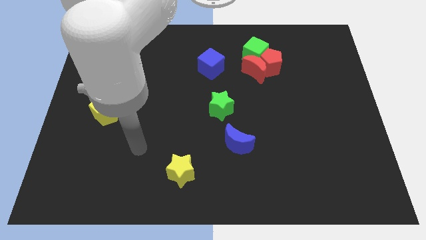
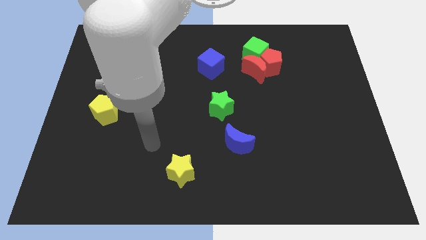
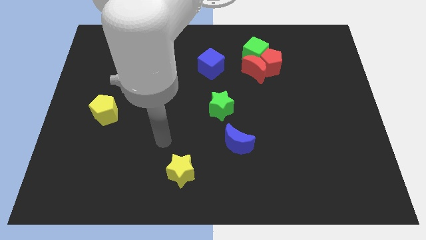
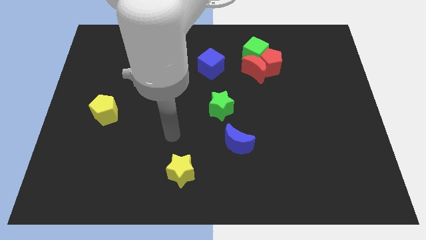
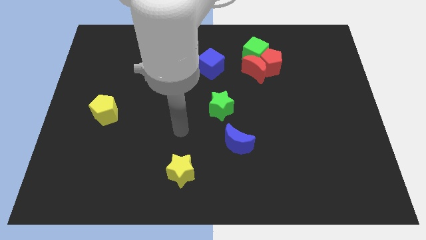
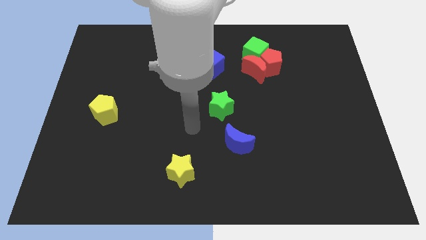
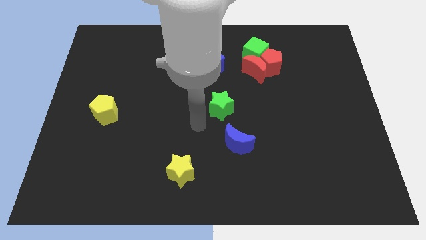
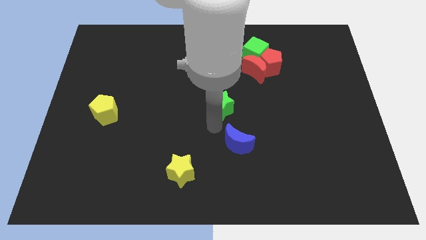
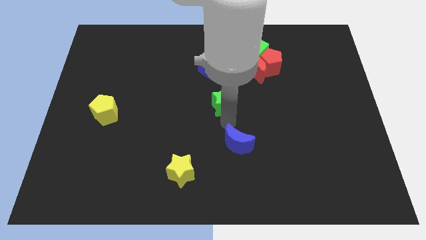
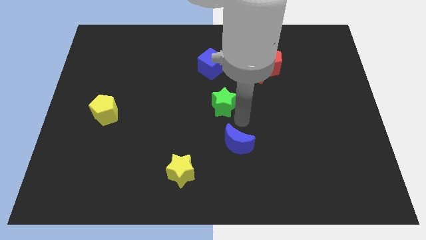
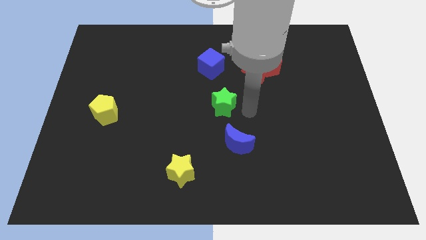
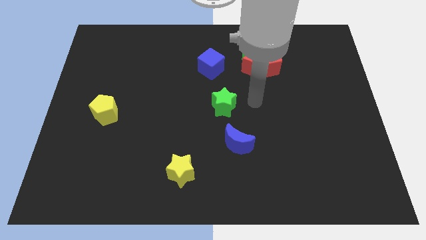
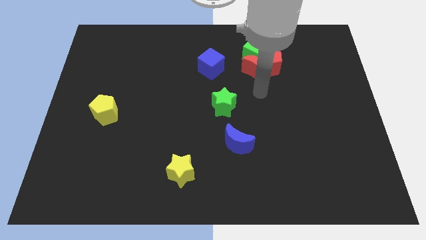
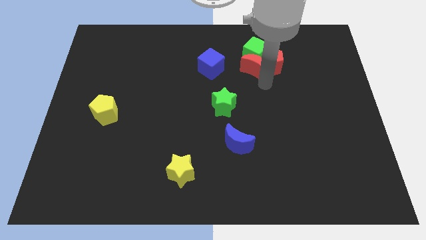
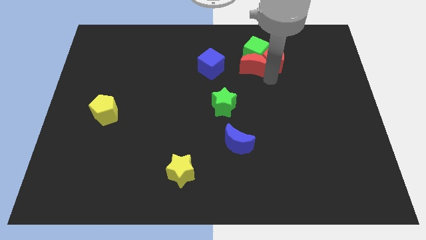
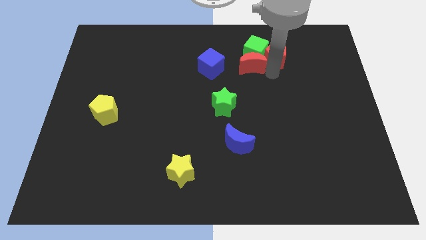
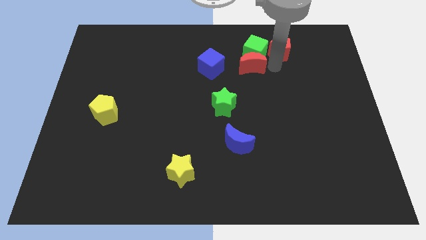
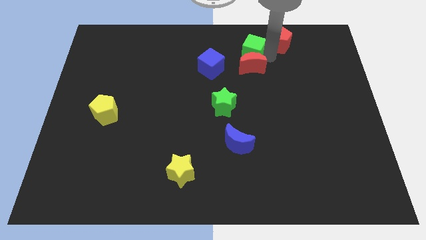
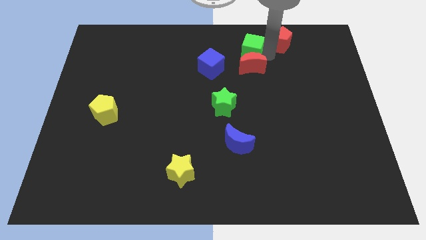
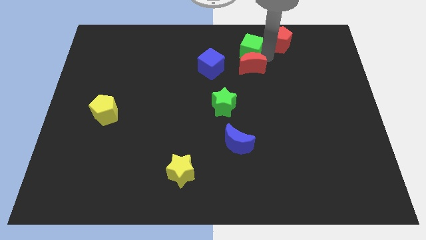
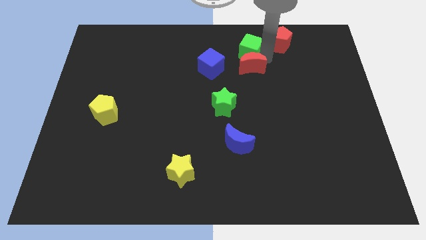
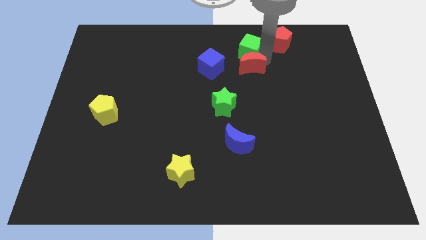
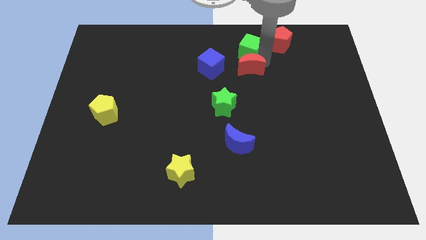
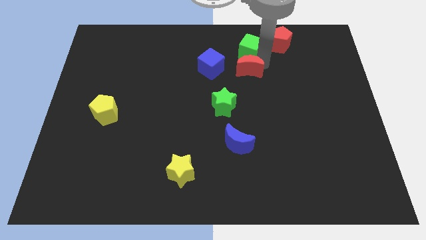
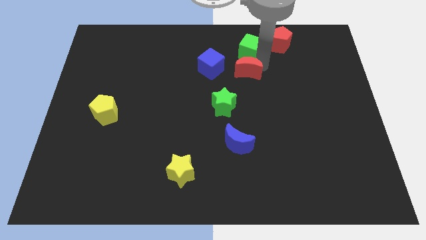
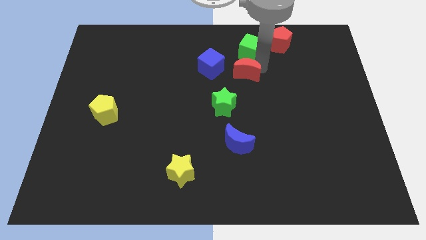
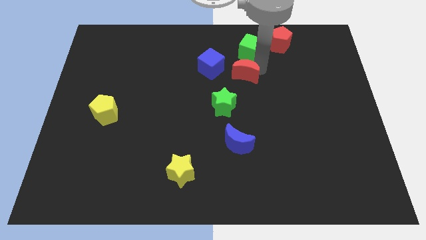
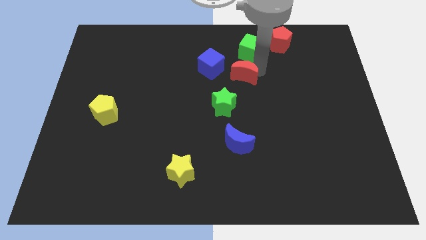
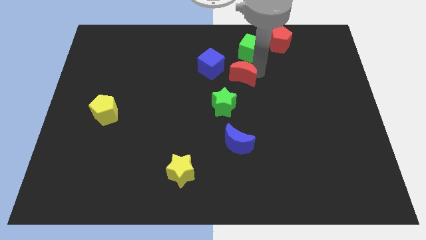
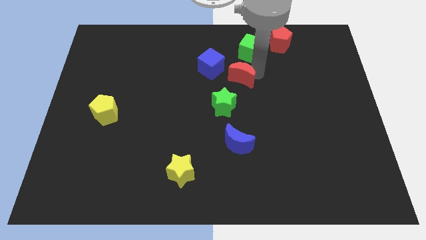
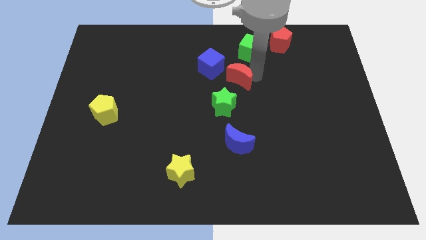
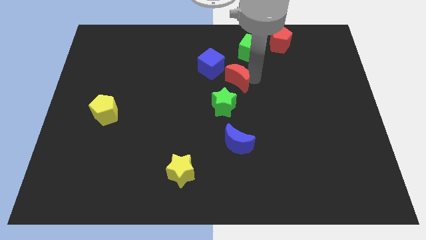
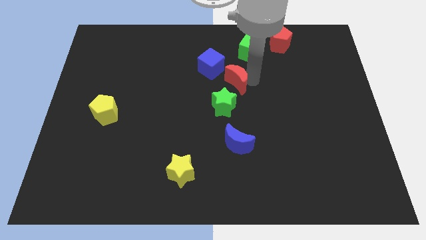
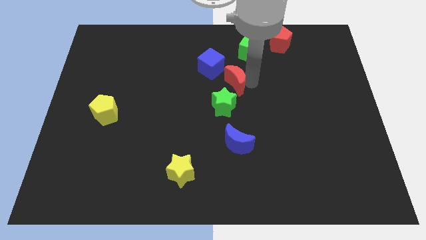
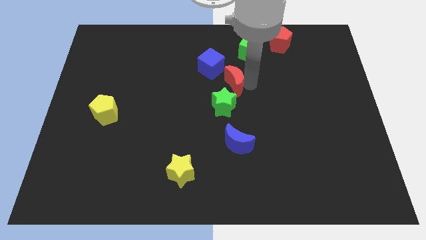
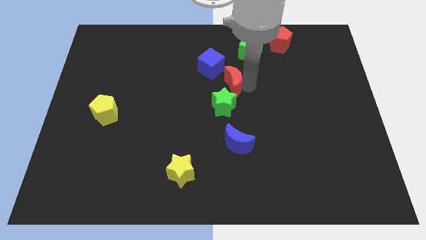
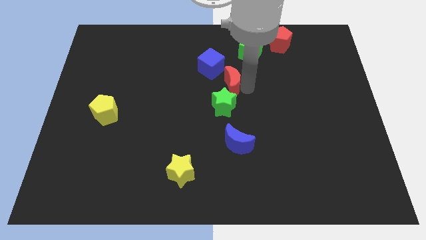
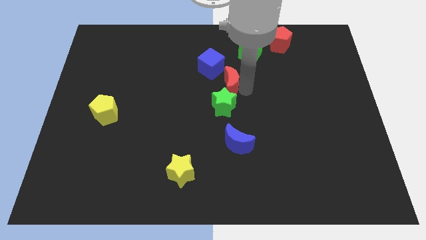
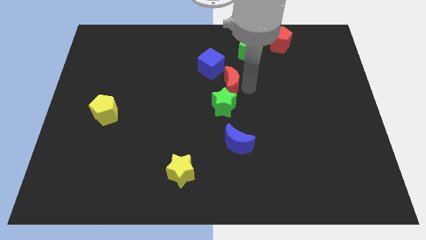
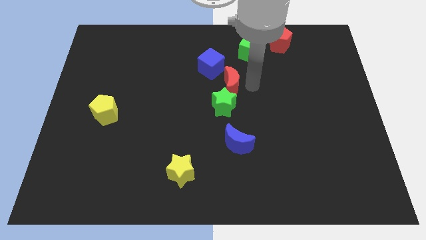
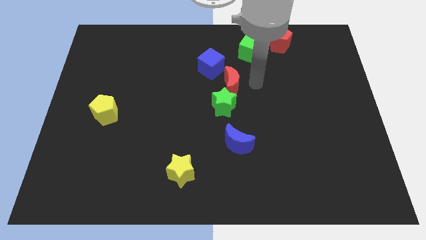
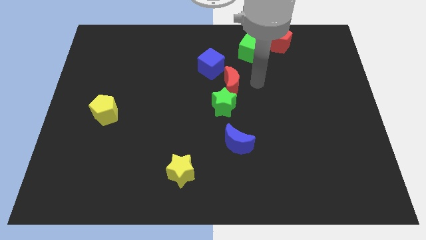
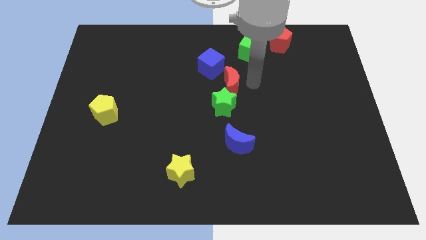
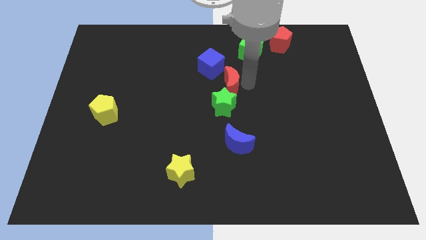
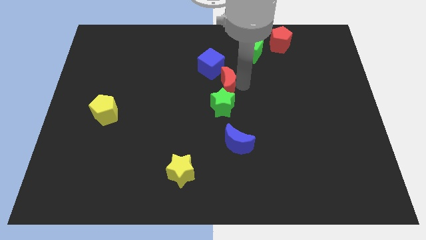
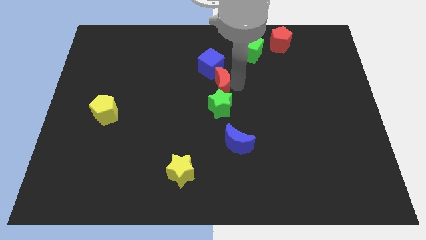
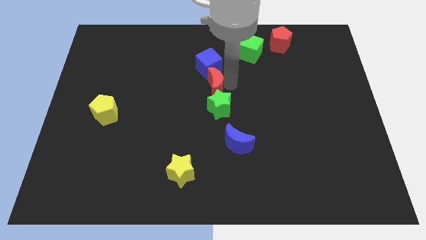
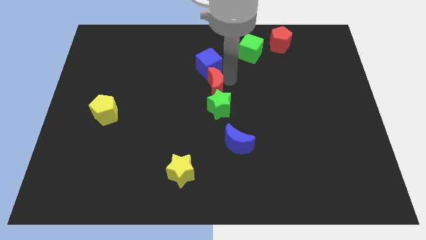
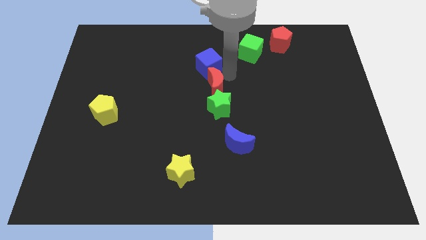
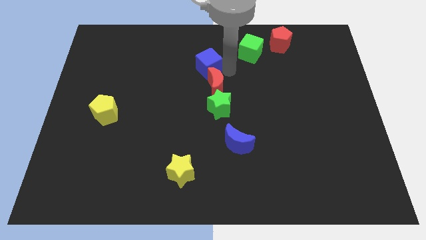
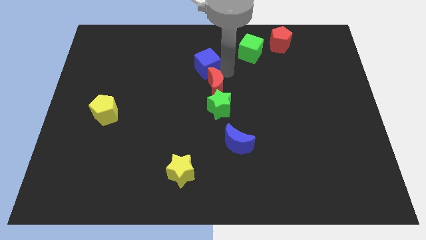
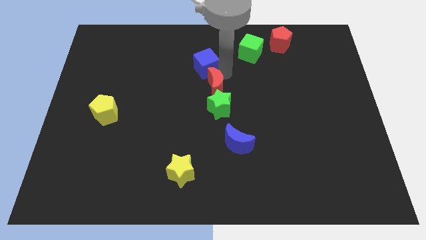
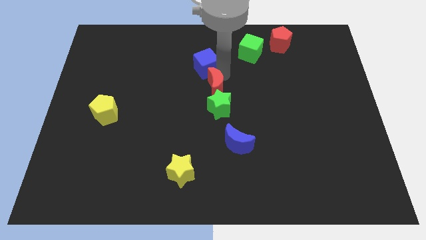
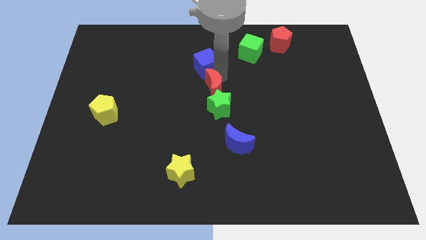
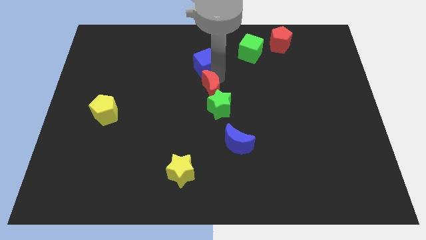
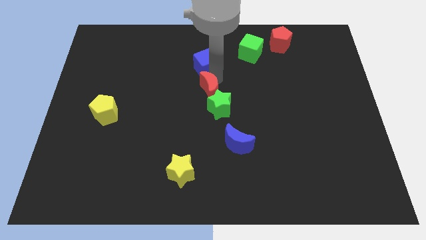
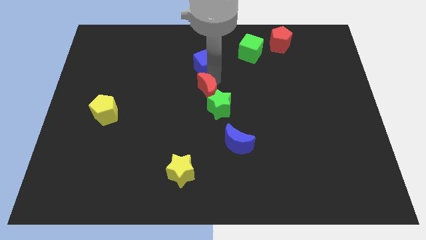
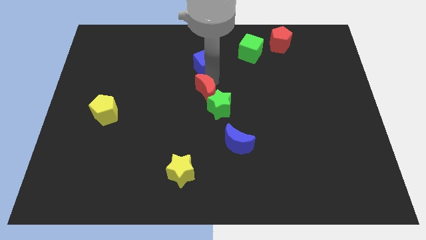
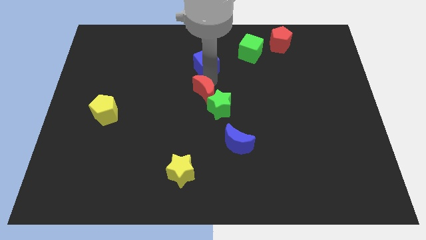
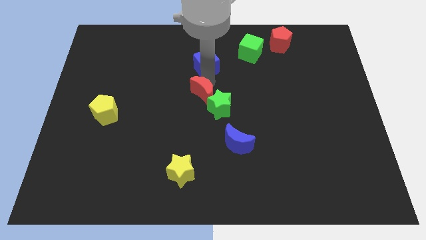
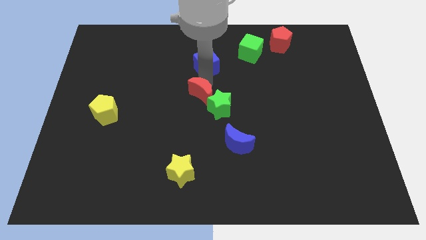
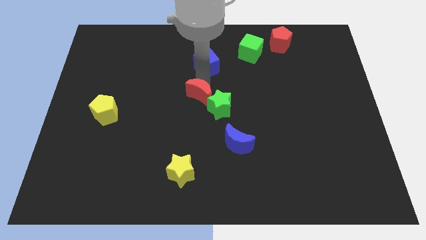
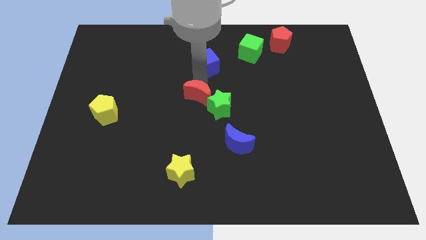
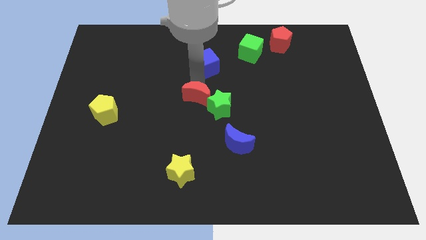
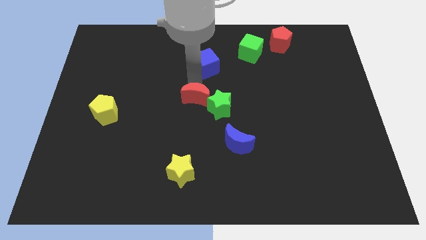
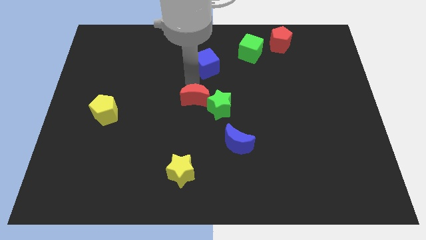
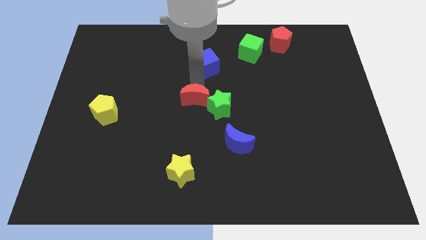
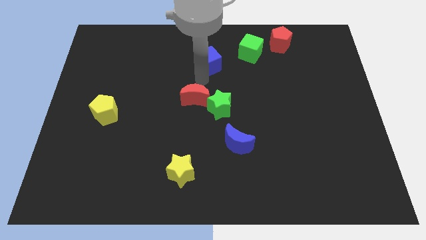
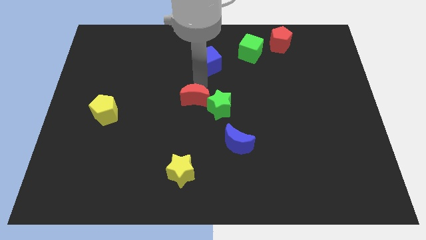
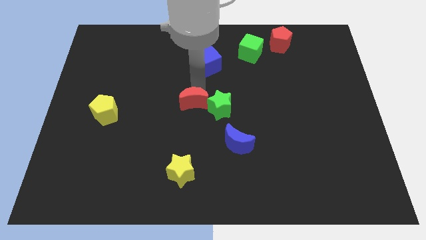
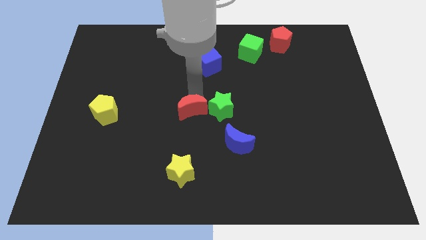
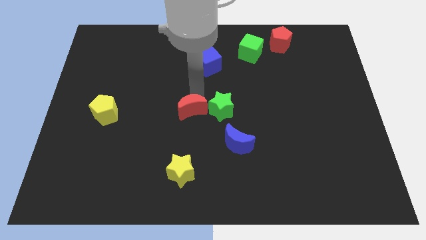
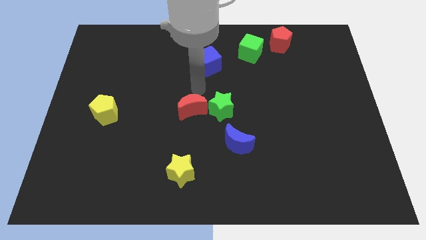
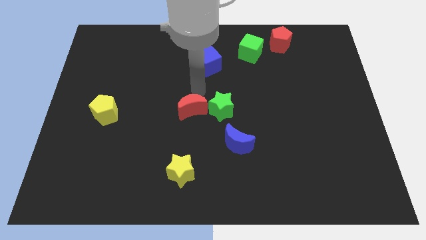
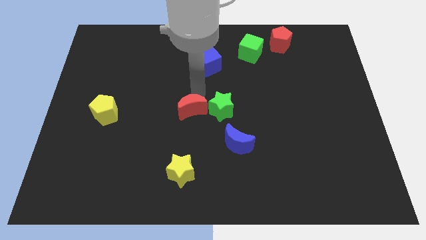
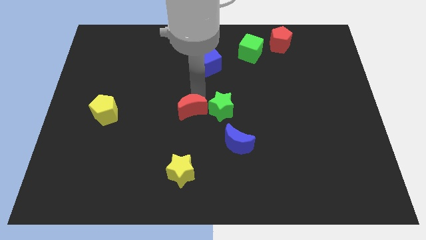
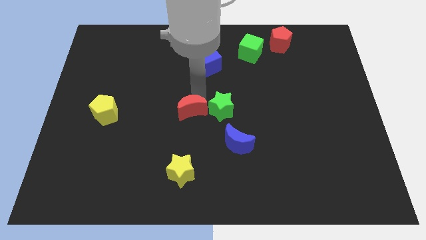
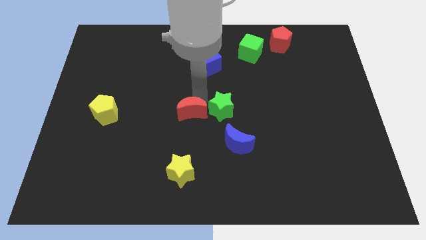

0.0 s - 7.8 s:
move the red moon to the top of the yellow star

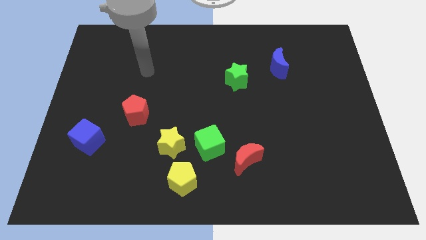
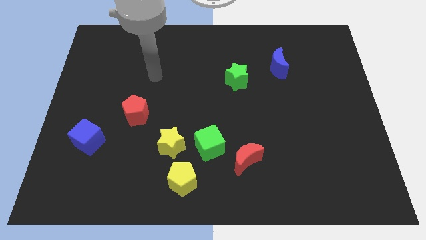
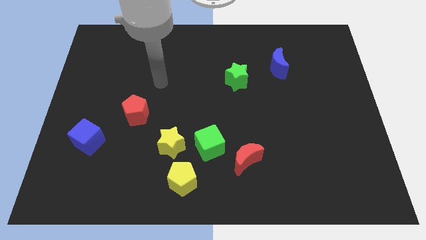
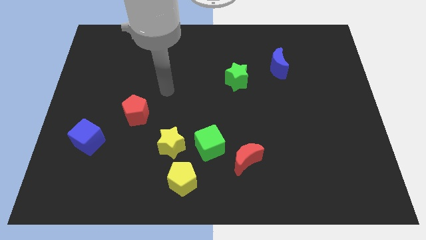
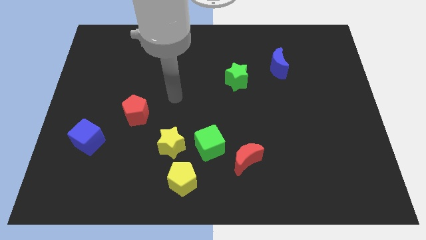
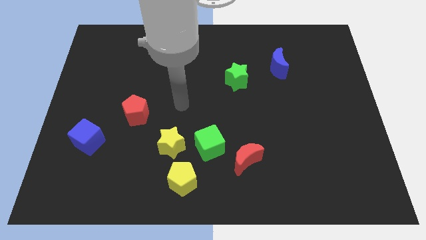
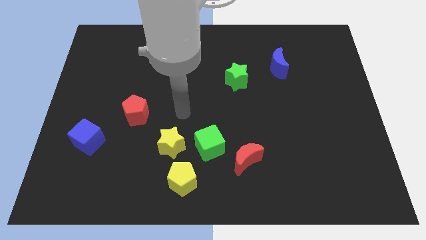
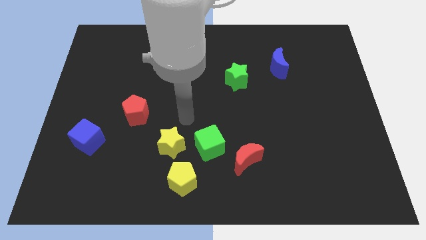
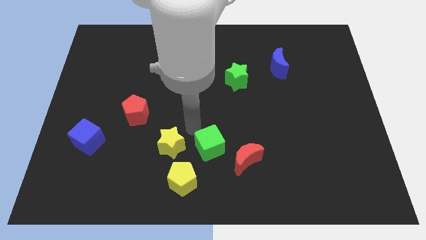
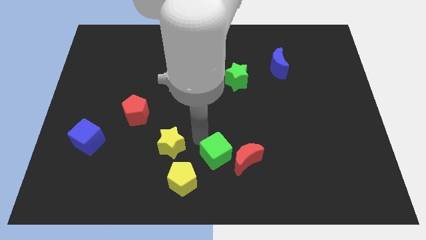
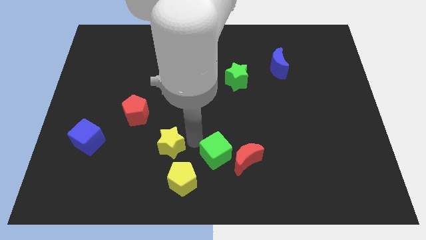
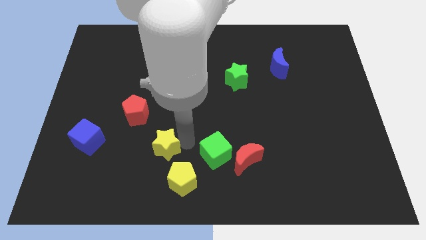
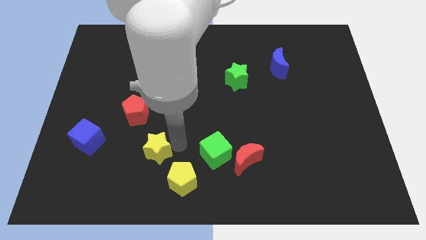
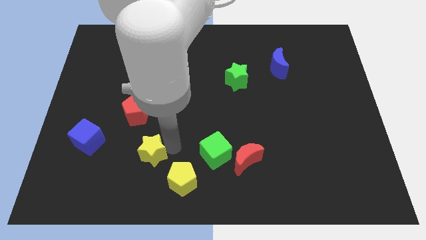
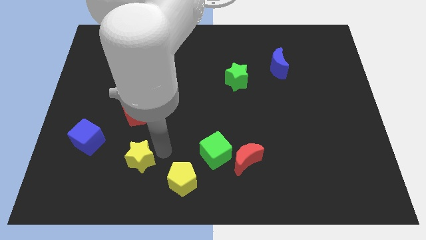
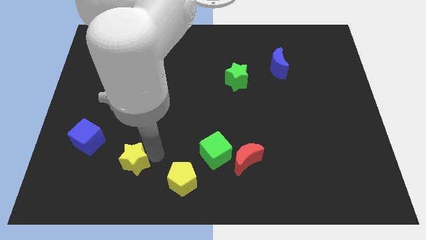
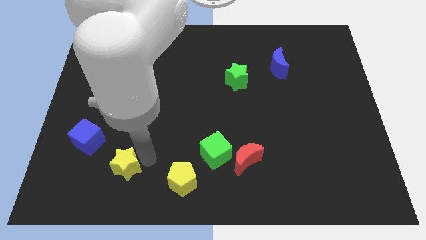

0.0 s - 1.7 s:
move the yellow star to the bottom right of the blue cube
